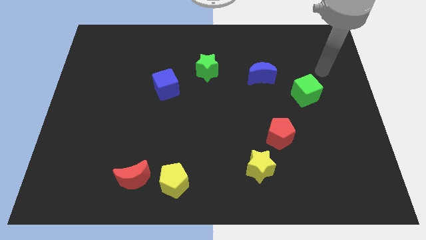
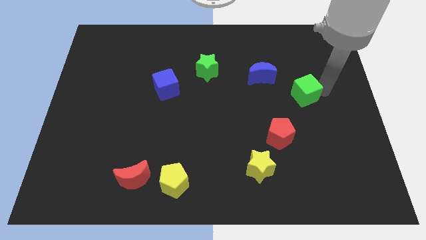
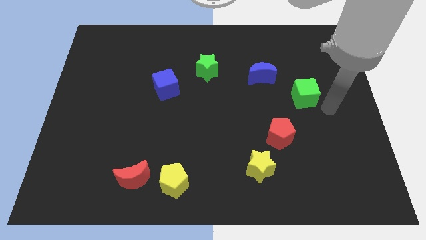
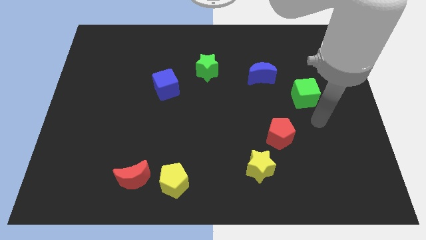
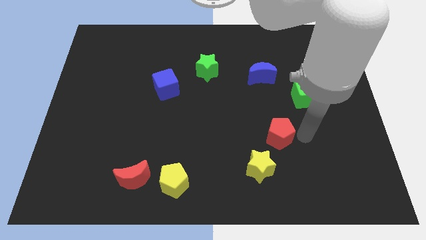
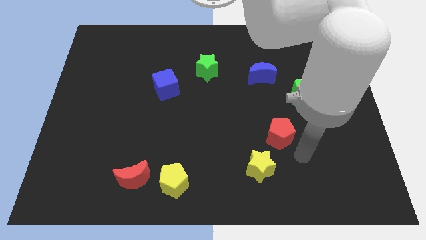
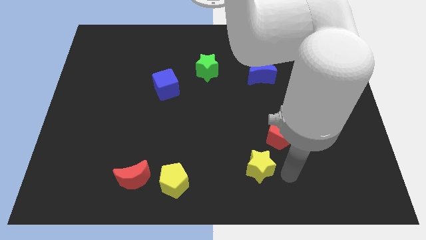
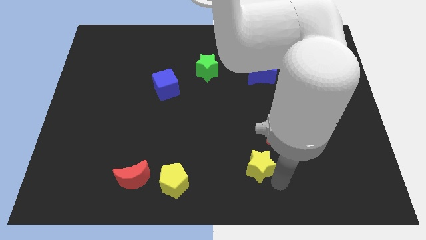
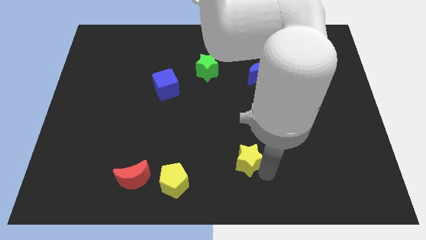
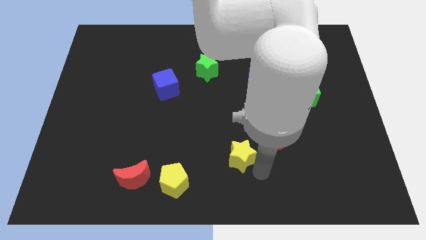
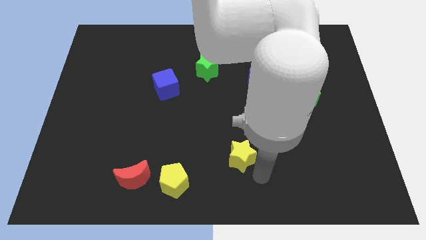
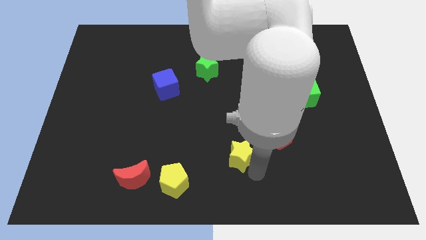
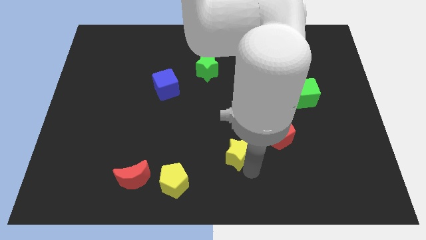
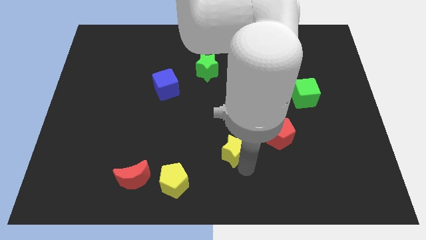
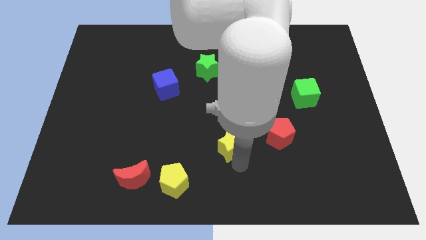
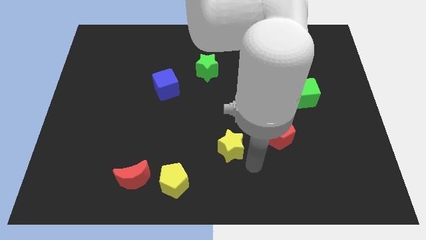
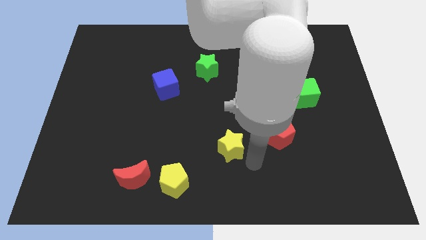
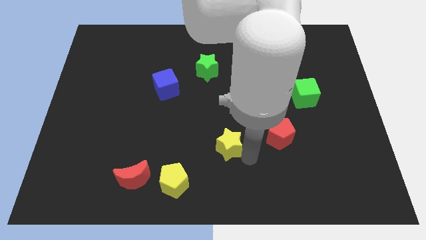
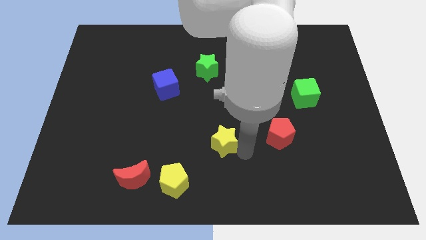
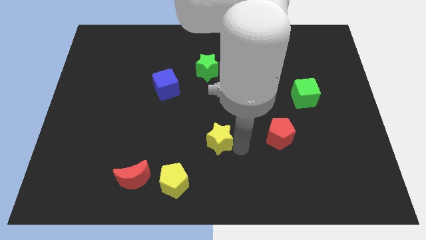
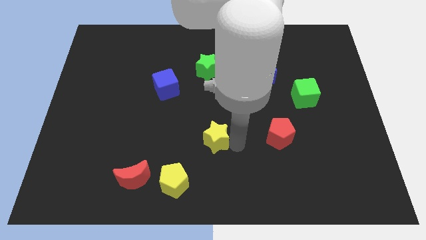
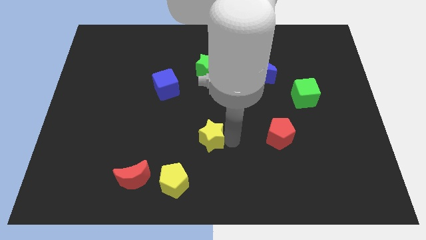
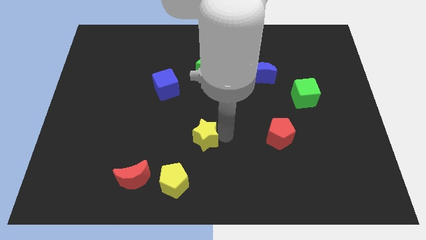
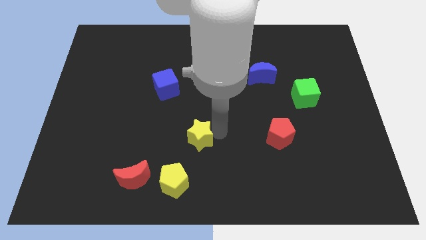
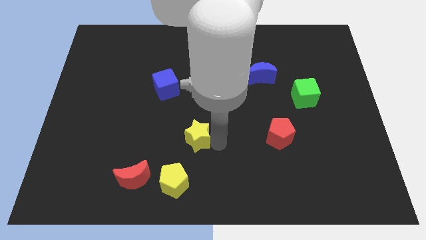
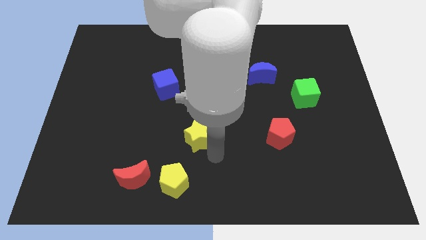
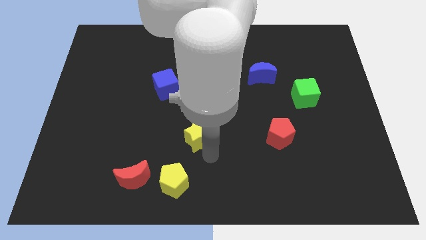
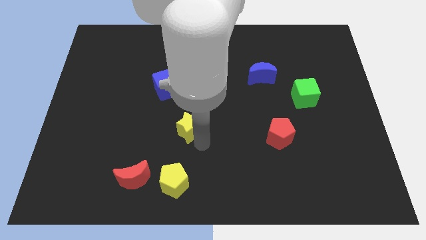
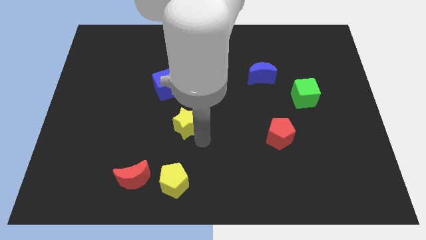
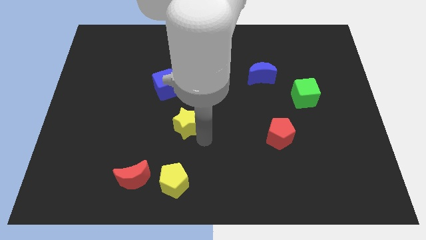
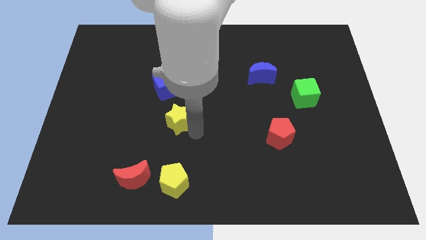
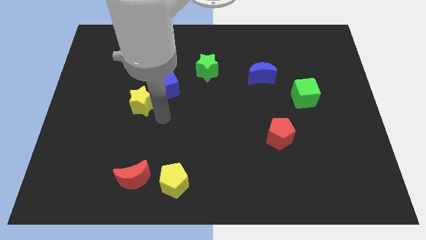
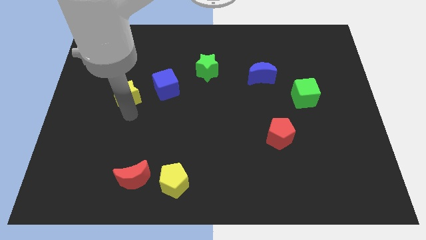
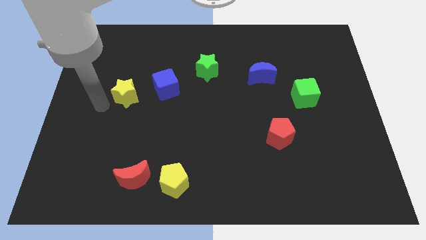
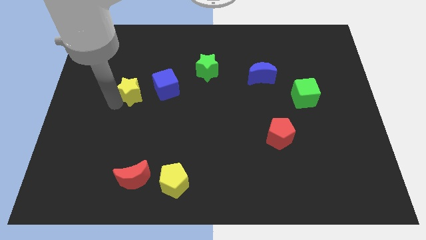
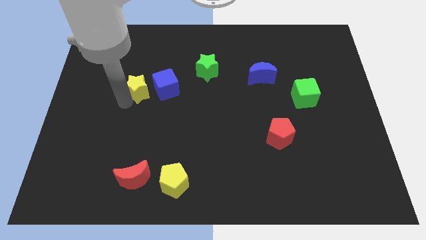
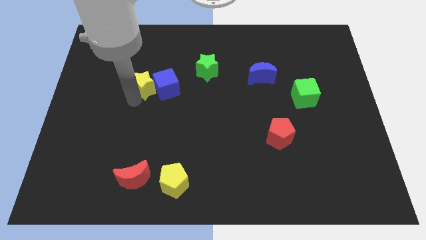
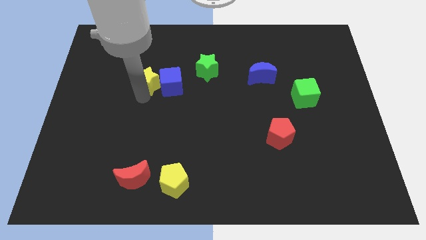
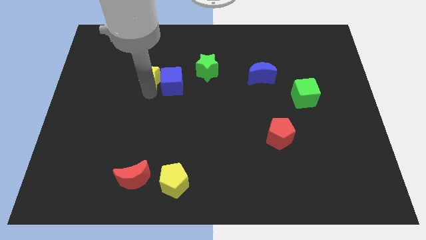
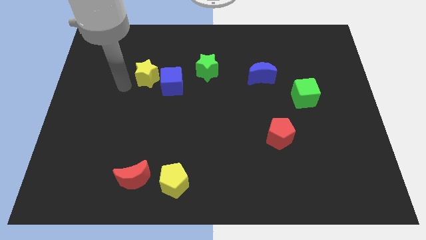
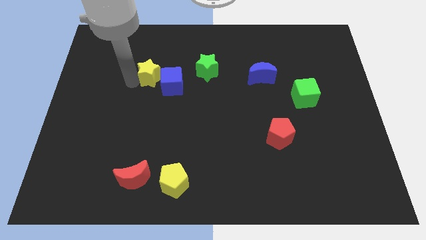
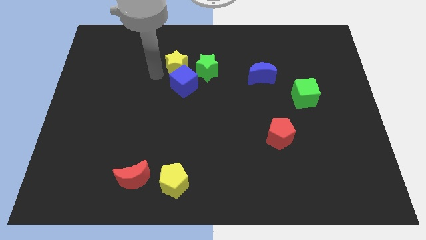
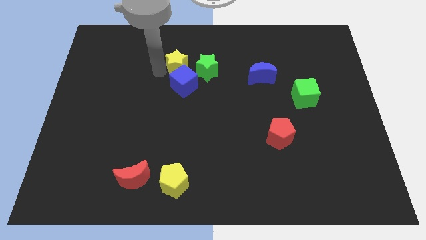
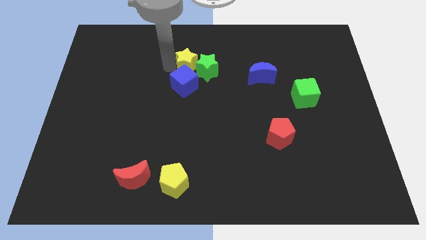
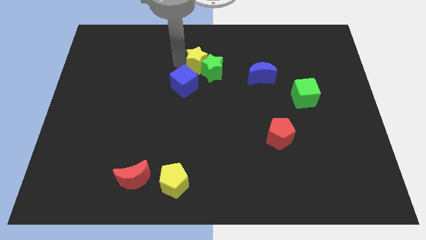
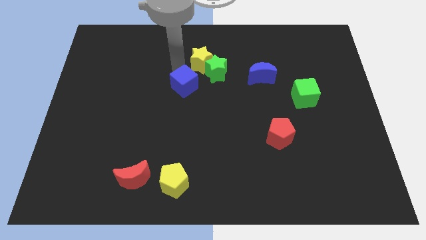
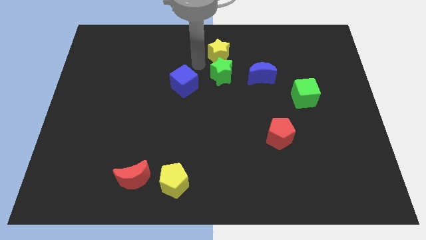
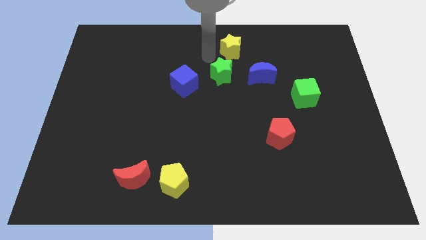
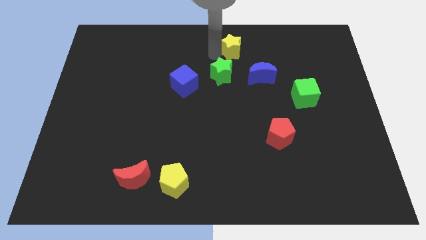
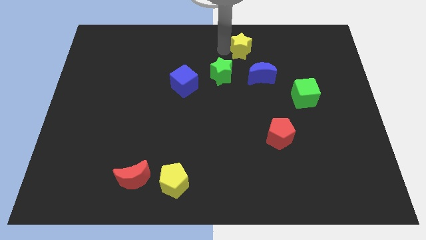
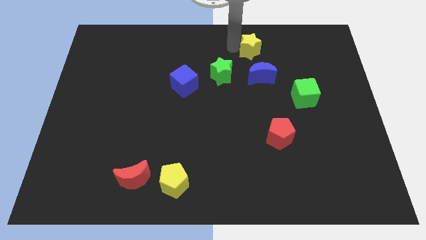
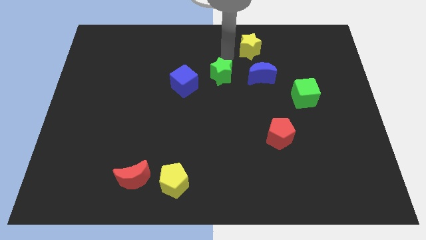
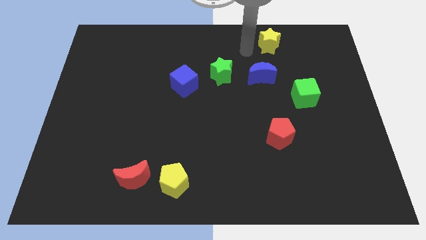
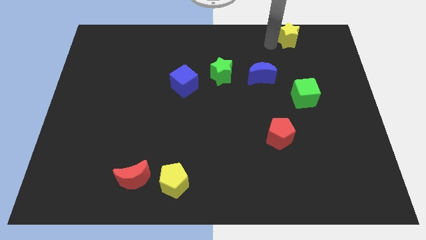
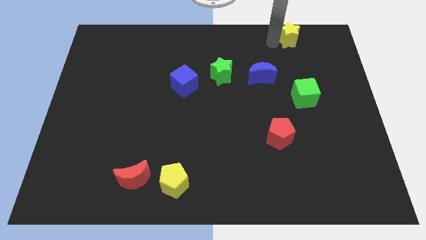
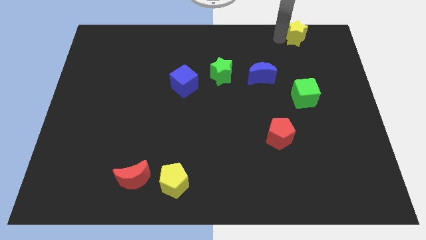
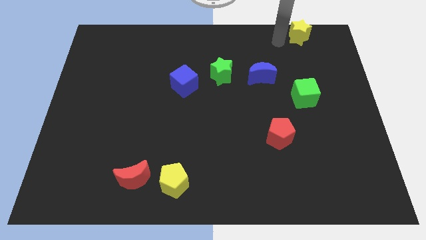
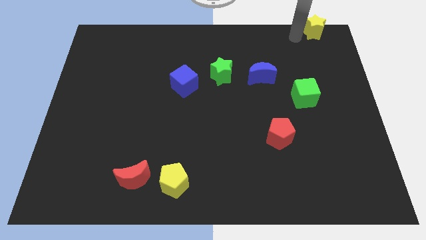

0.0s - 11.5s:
push the yellow star to the top right

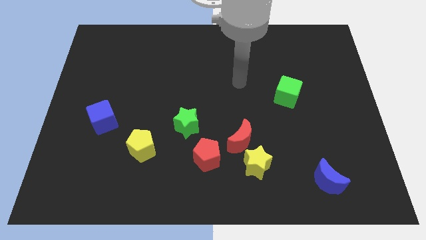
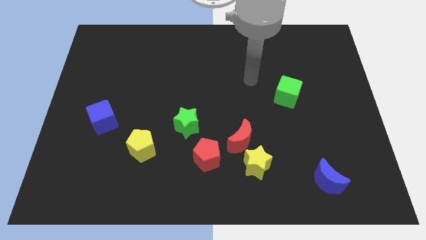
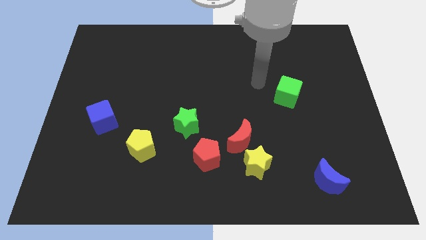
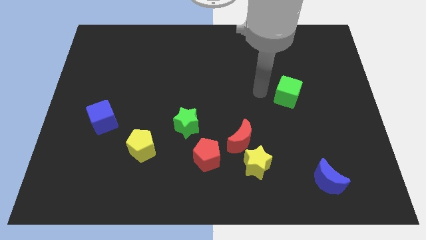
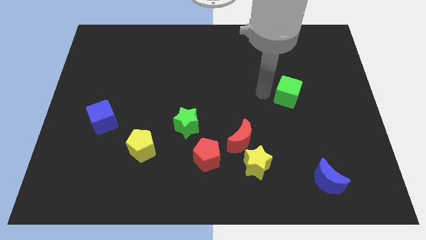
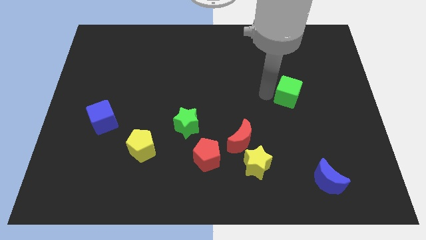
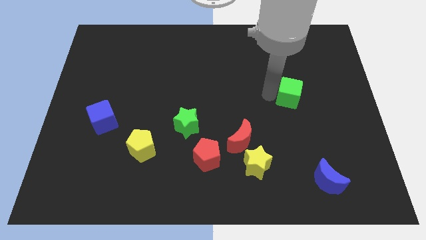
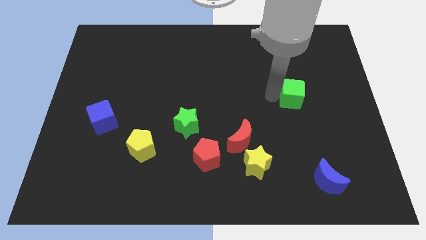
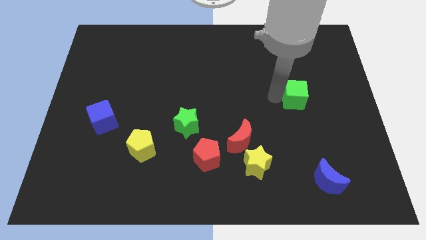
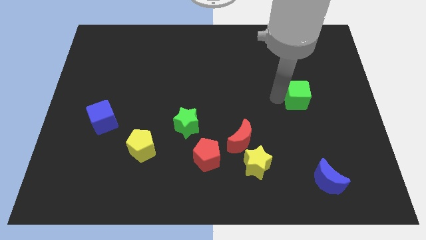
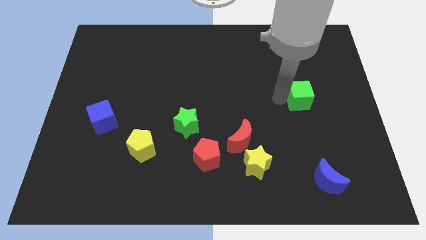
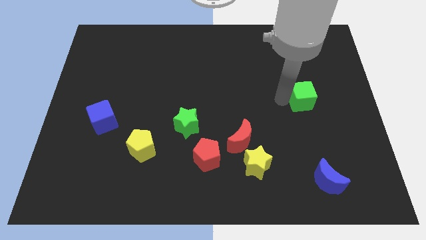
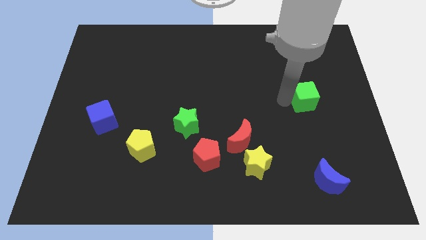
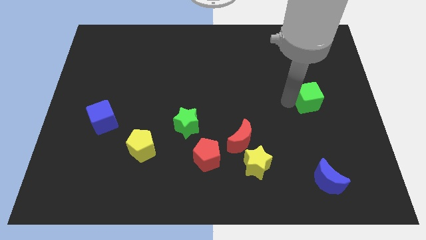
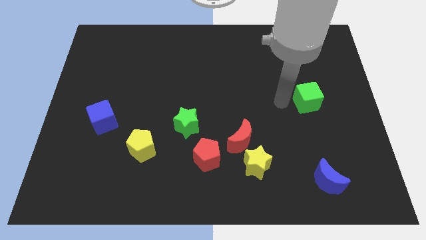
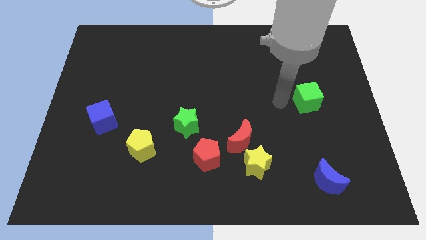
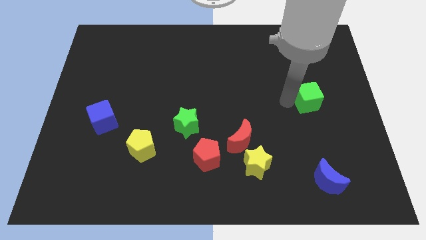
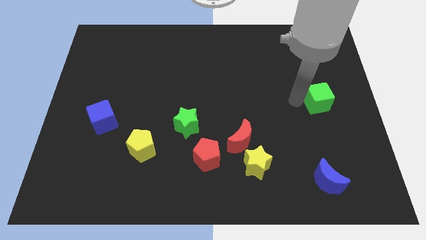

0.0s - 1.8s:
slide the green cube to the right side of the board
